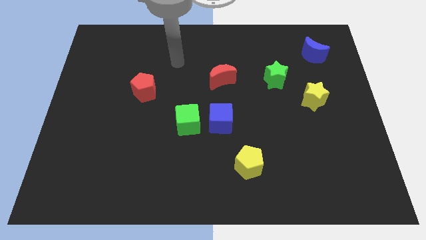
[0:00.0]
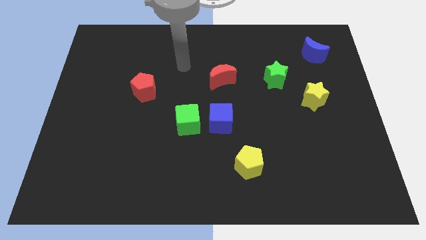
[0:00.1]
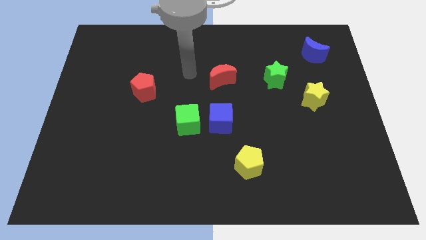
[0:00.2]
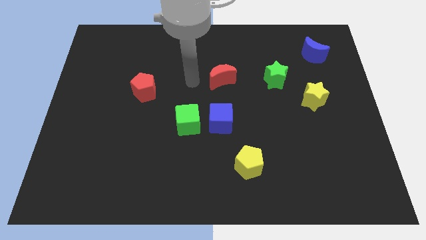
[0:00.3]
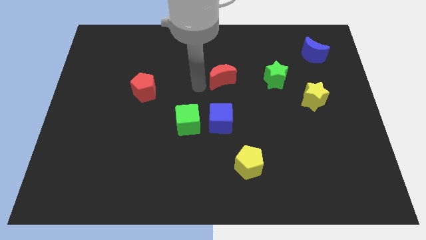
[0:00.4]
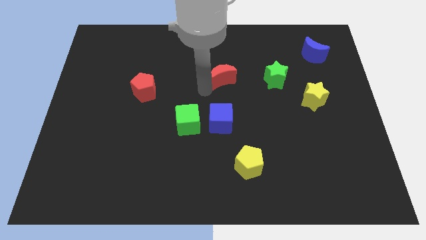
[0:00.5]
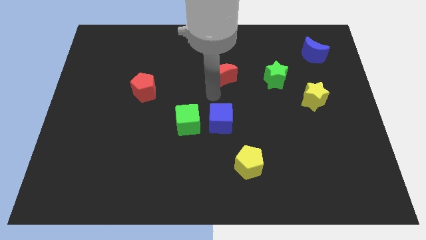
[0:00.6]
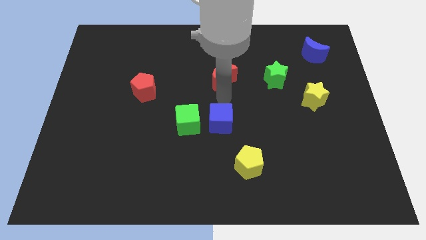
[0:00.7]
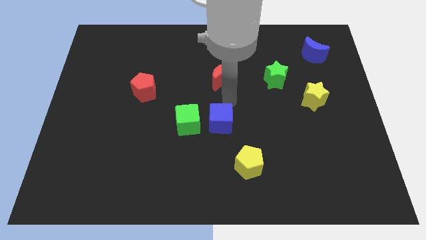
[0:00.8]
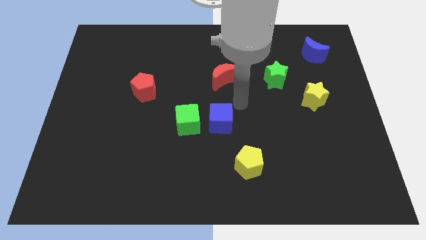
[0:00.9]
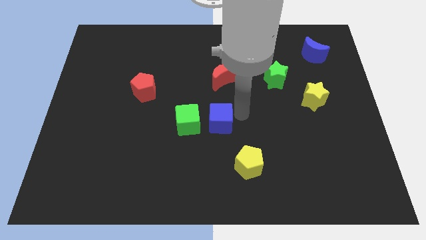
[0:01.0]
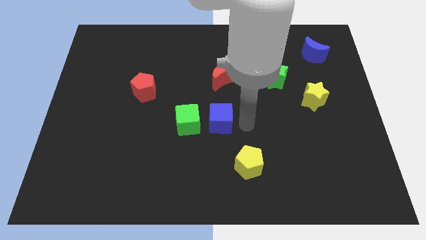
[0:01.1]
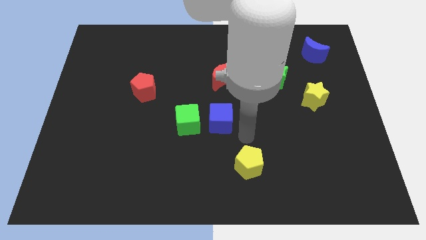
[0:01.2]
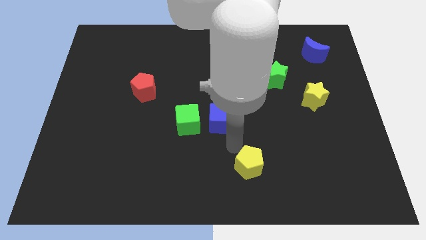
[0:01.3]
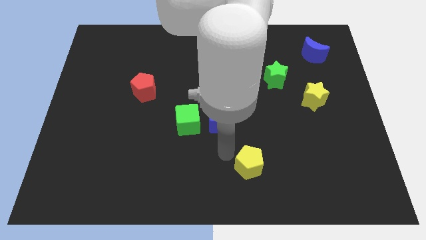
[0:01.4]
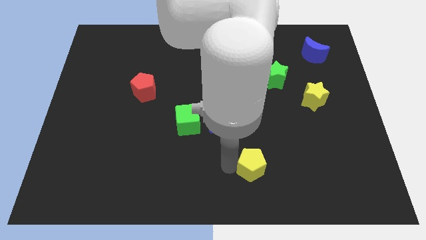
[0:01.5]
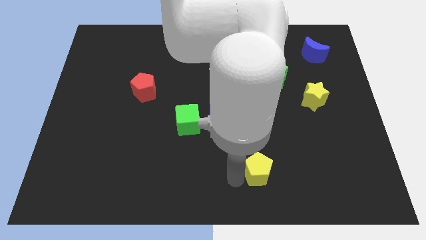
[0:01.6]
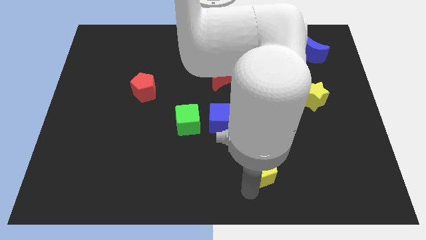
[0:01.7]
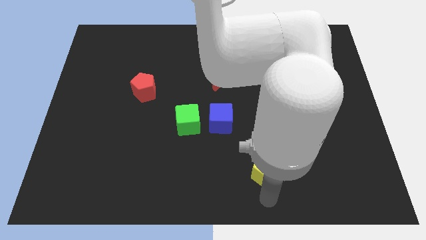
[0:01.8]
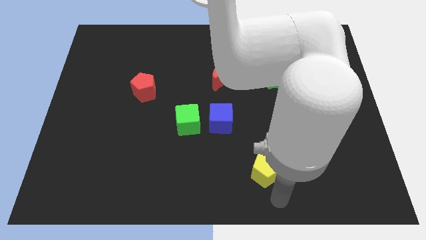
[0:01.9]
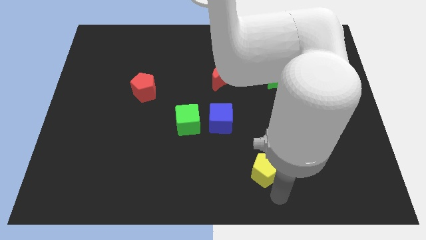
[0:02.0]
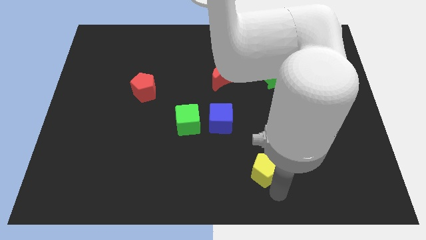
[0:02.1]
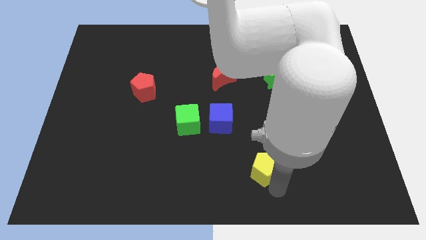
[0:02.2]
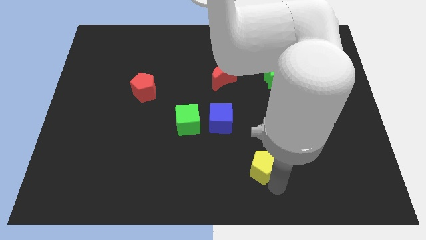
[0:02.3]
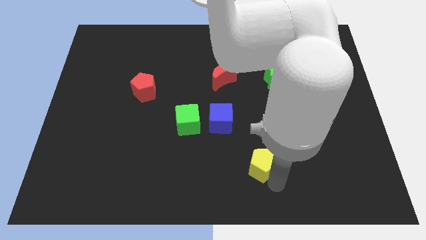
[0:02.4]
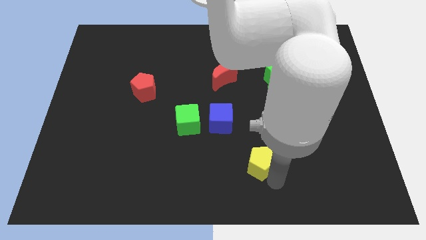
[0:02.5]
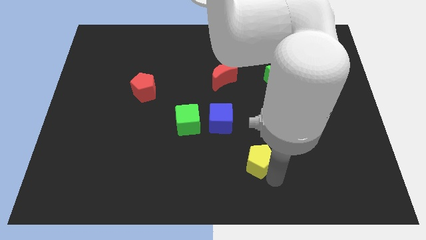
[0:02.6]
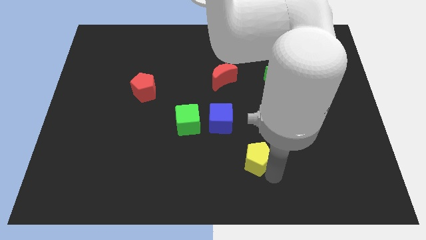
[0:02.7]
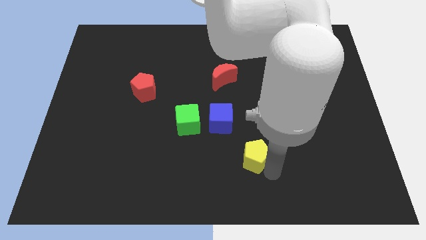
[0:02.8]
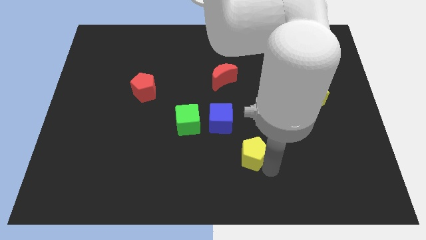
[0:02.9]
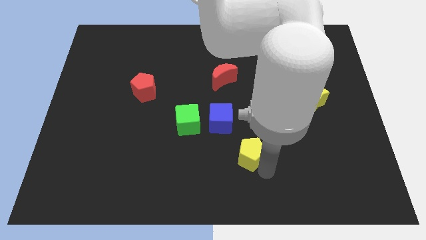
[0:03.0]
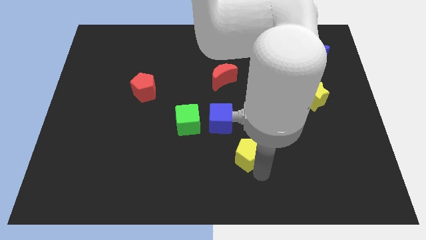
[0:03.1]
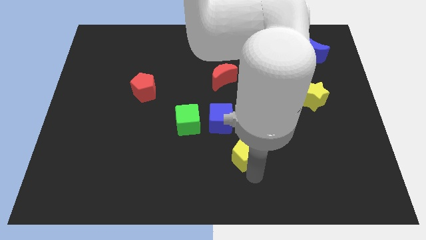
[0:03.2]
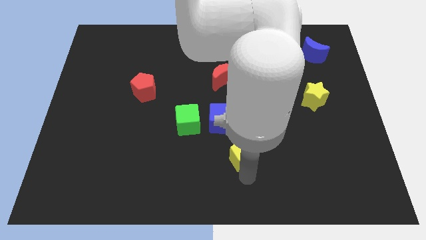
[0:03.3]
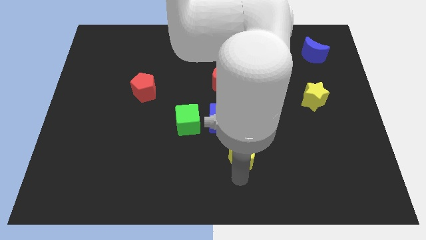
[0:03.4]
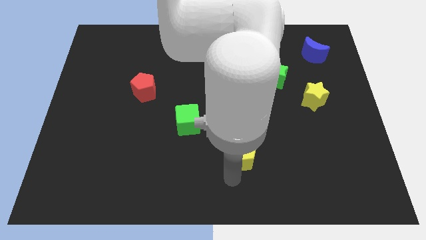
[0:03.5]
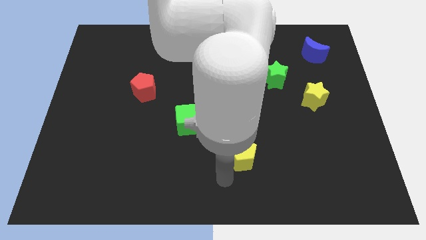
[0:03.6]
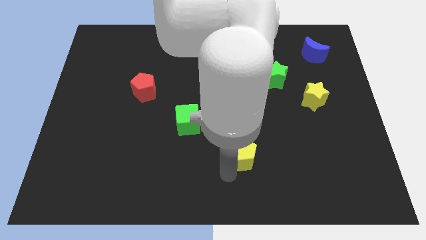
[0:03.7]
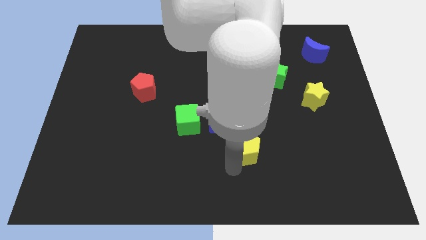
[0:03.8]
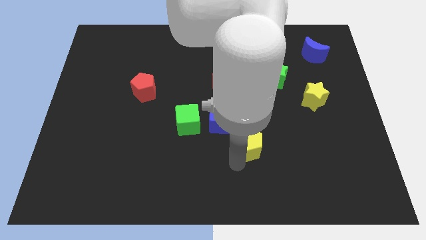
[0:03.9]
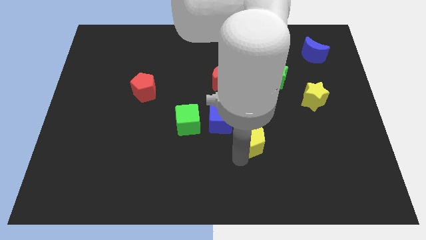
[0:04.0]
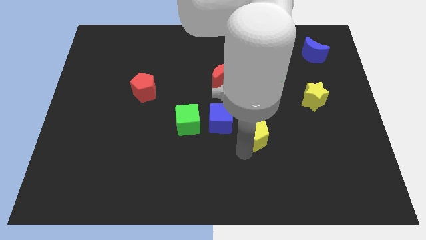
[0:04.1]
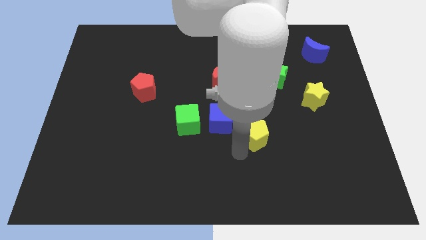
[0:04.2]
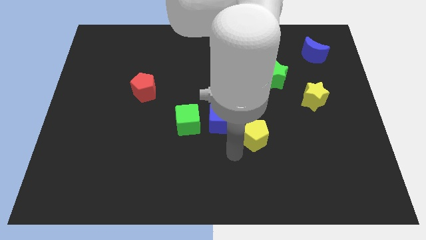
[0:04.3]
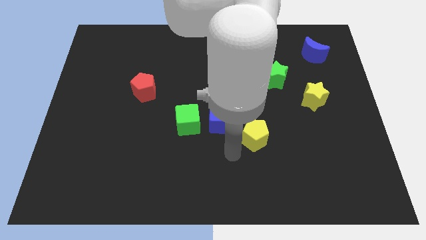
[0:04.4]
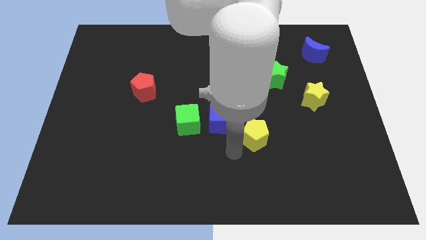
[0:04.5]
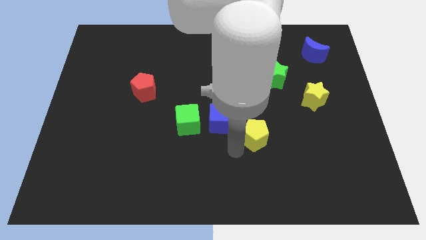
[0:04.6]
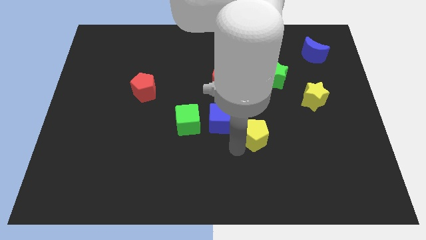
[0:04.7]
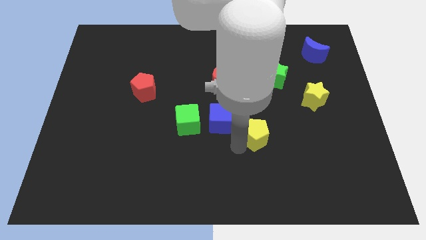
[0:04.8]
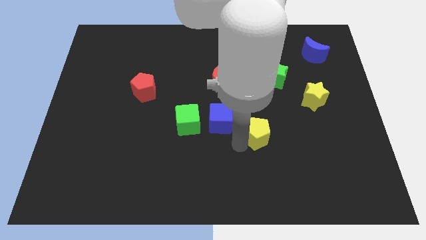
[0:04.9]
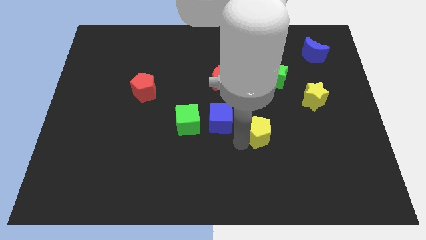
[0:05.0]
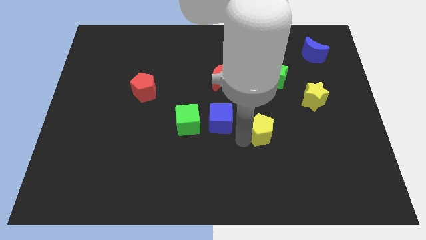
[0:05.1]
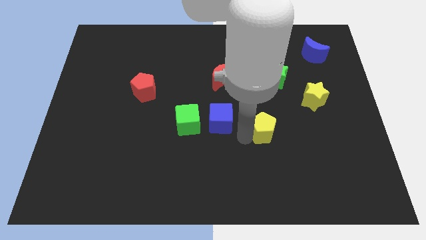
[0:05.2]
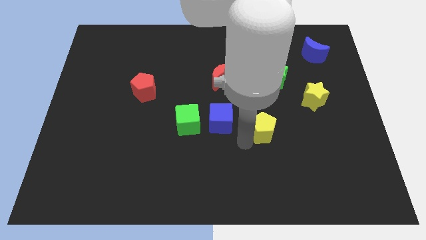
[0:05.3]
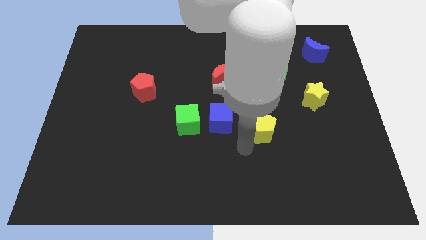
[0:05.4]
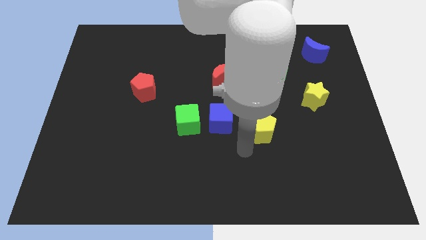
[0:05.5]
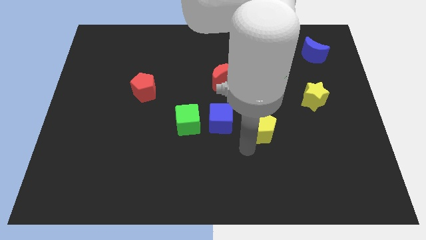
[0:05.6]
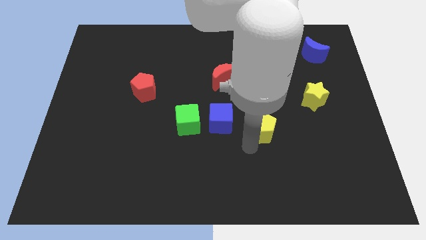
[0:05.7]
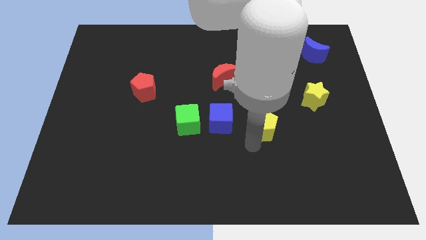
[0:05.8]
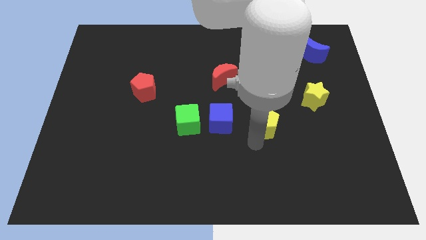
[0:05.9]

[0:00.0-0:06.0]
move the yellow pentagon below the green star
